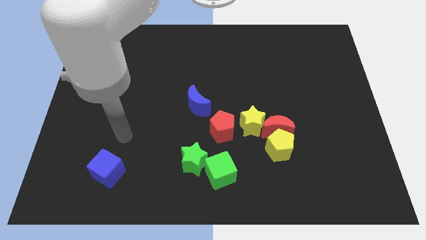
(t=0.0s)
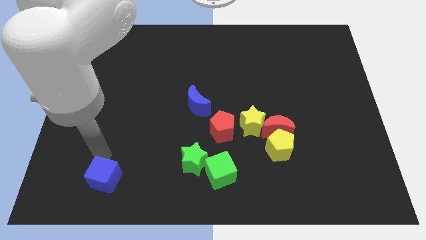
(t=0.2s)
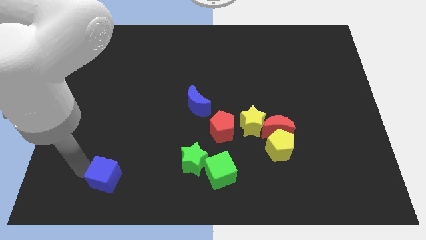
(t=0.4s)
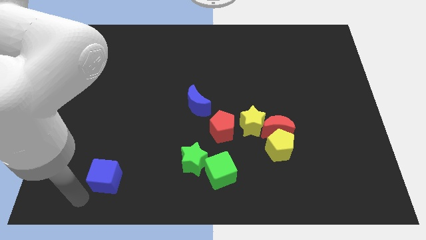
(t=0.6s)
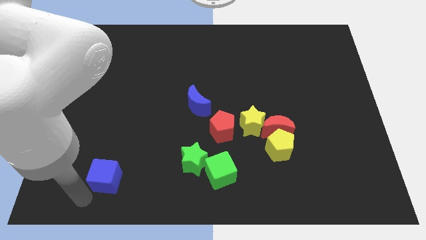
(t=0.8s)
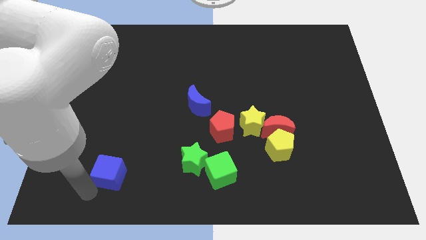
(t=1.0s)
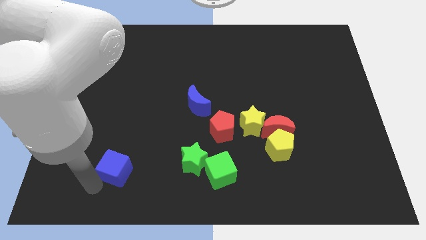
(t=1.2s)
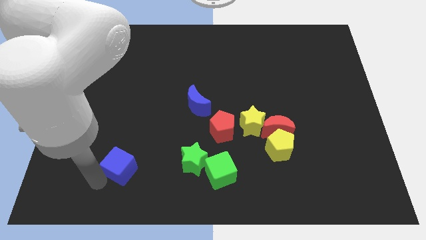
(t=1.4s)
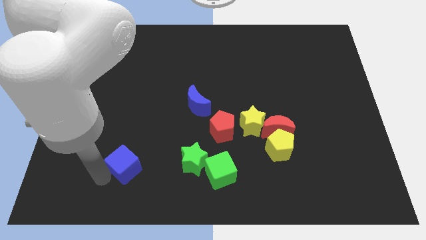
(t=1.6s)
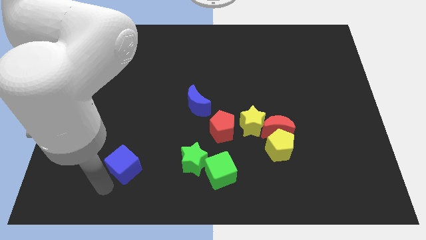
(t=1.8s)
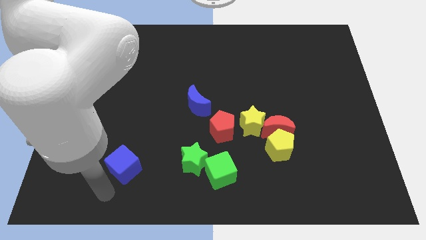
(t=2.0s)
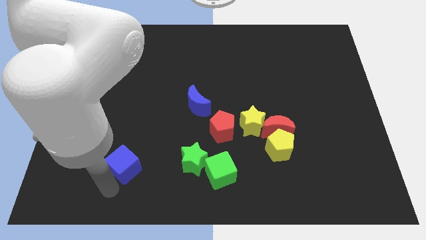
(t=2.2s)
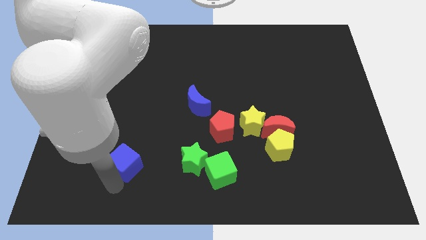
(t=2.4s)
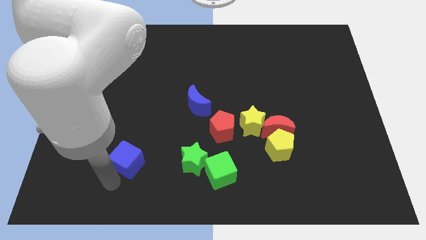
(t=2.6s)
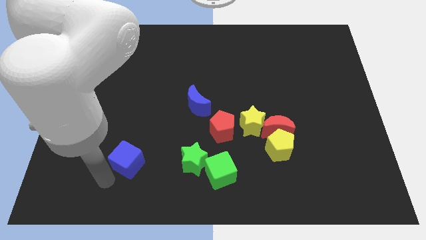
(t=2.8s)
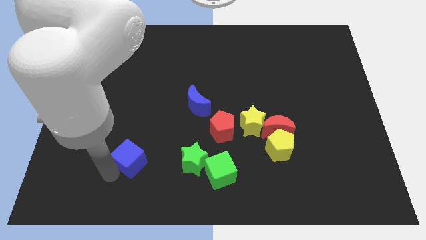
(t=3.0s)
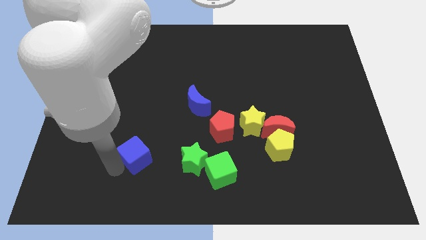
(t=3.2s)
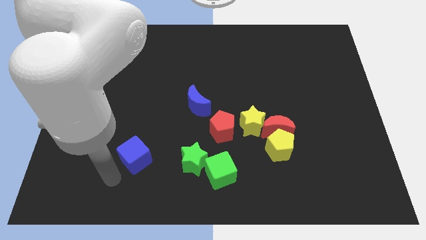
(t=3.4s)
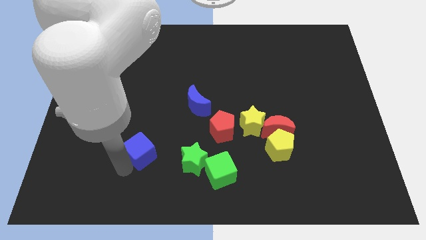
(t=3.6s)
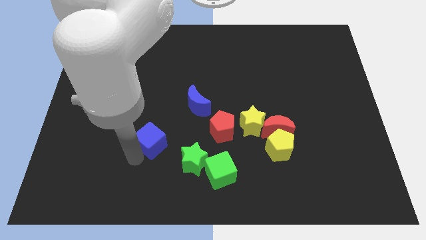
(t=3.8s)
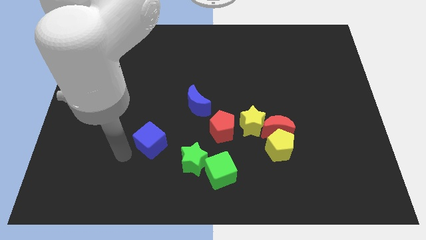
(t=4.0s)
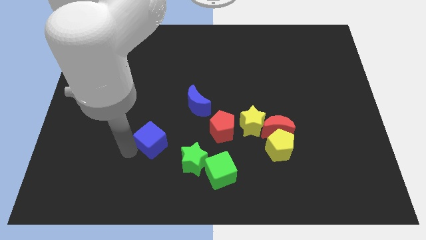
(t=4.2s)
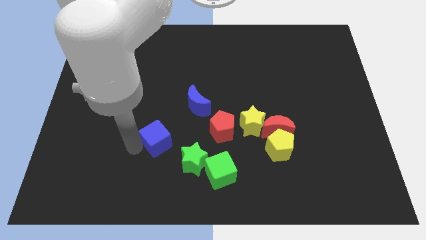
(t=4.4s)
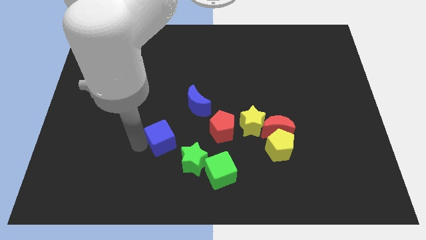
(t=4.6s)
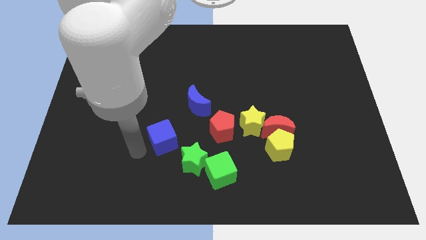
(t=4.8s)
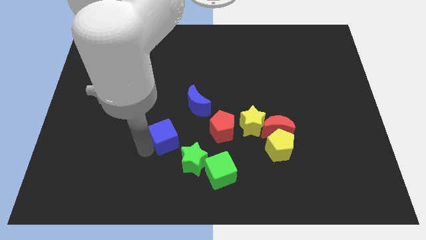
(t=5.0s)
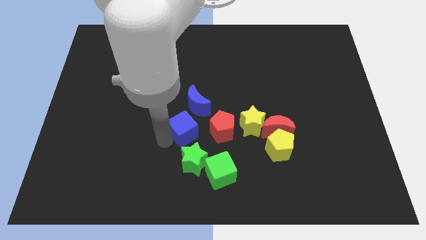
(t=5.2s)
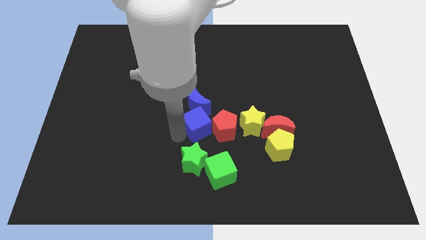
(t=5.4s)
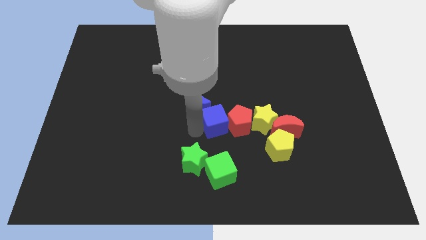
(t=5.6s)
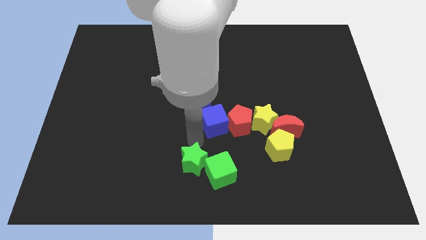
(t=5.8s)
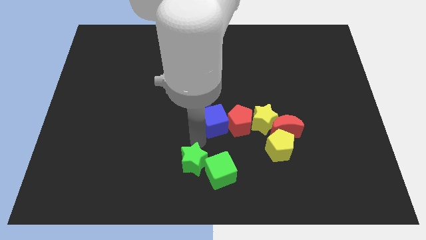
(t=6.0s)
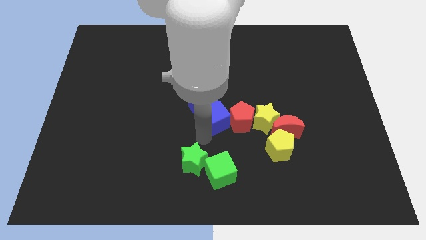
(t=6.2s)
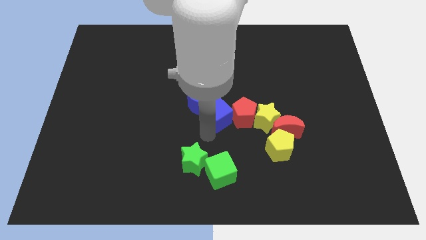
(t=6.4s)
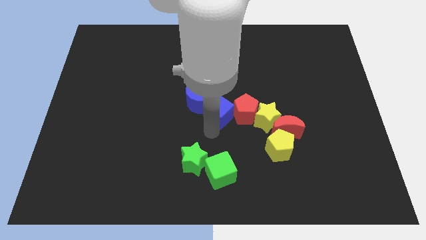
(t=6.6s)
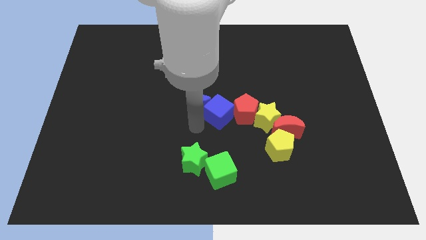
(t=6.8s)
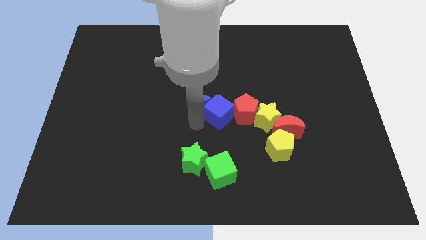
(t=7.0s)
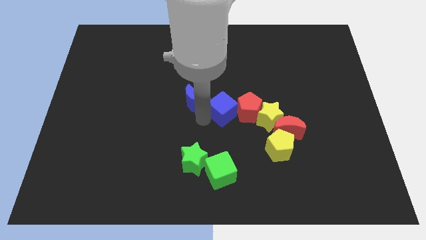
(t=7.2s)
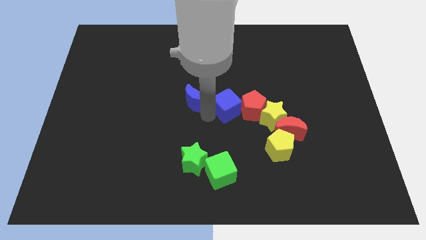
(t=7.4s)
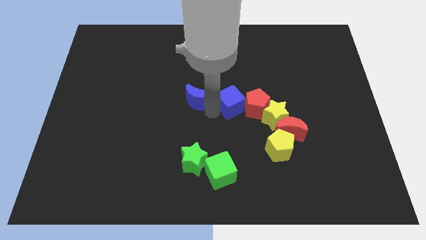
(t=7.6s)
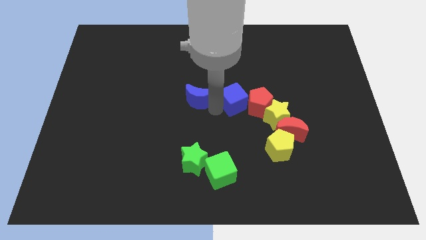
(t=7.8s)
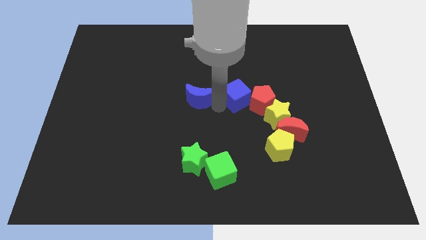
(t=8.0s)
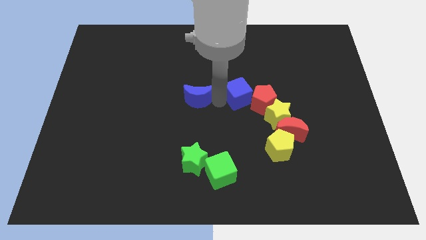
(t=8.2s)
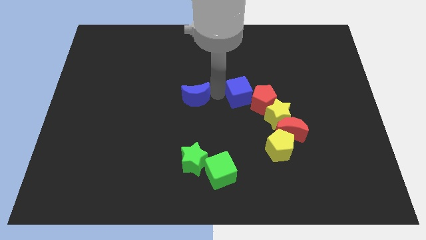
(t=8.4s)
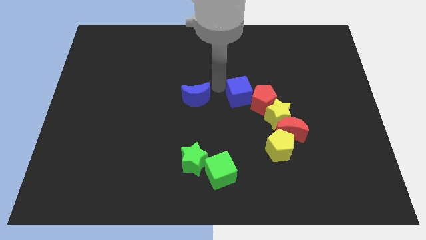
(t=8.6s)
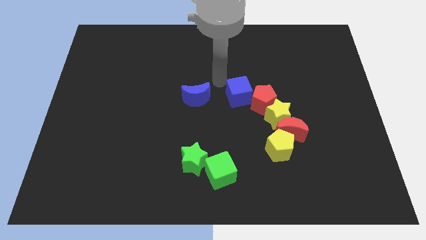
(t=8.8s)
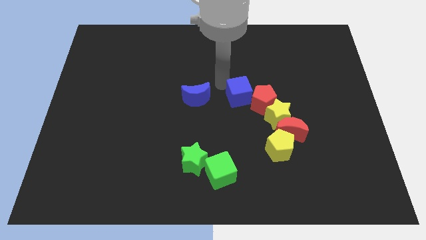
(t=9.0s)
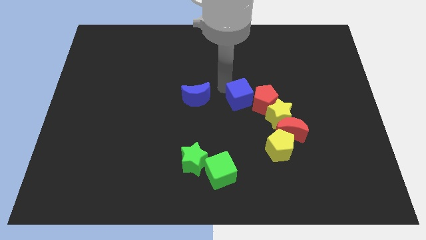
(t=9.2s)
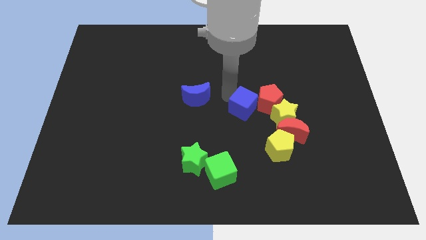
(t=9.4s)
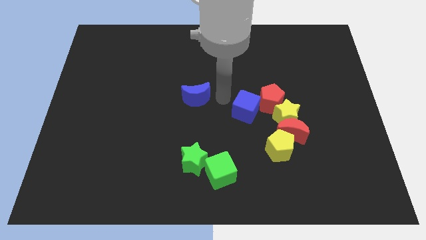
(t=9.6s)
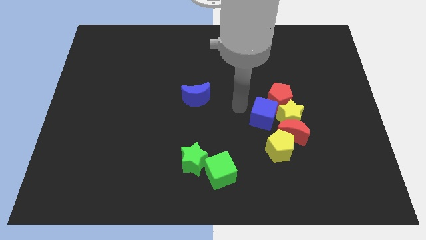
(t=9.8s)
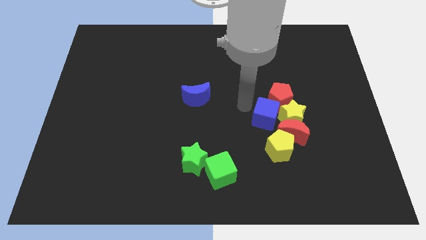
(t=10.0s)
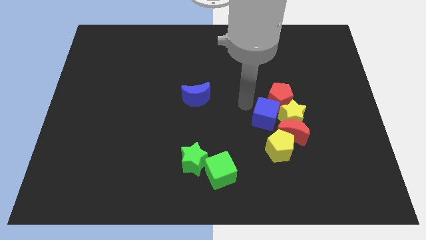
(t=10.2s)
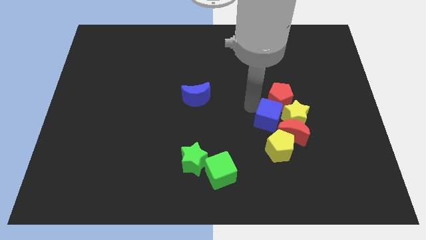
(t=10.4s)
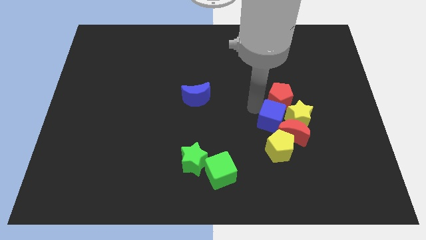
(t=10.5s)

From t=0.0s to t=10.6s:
push the blue cube next to the red moon

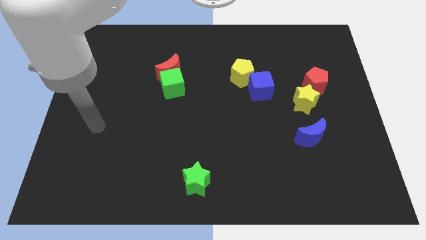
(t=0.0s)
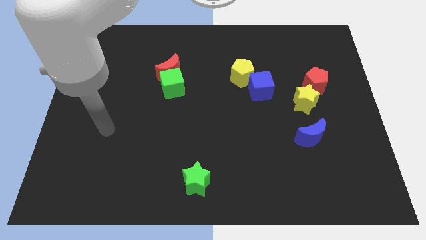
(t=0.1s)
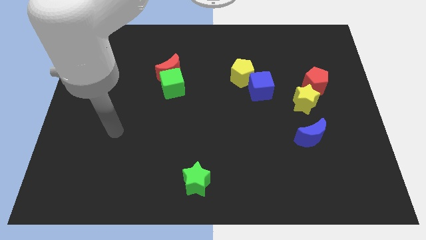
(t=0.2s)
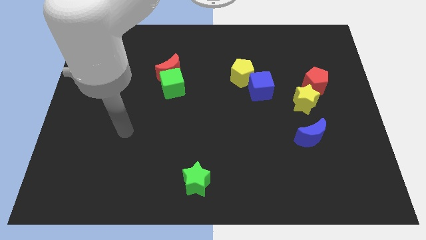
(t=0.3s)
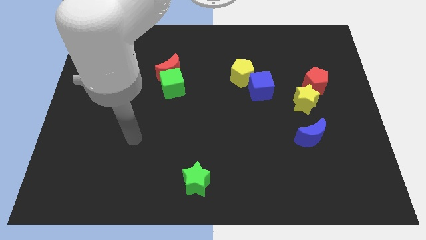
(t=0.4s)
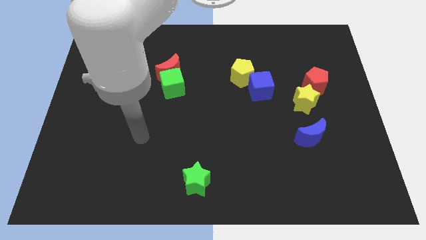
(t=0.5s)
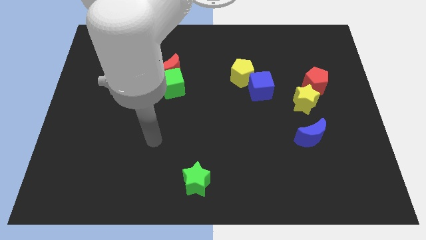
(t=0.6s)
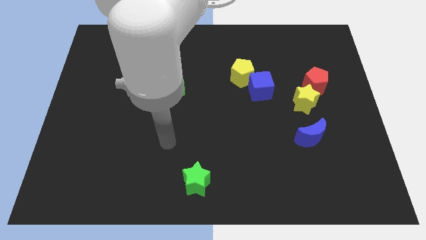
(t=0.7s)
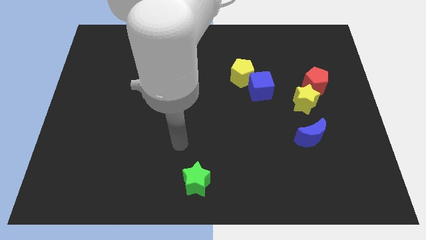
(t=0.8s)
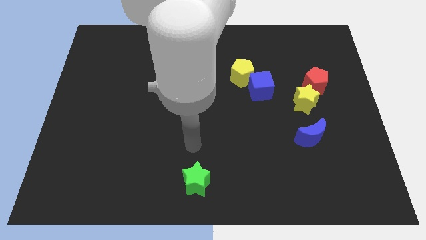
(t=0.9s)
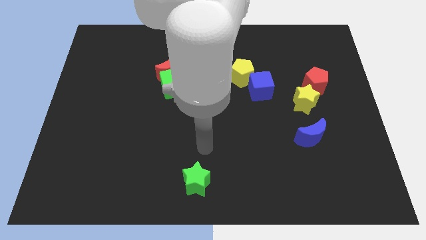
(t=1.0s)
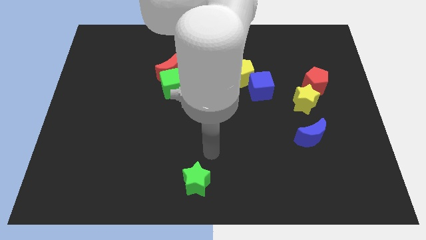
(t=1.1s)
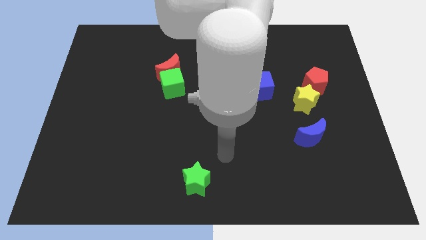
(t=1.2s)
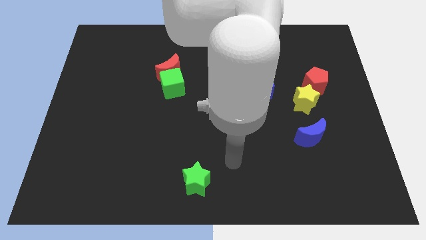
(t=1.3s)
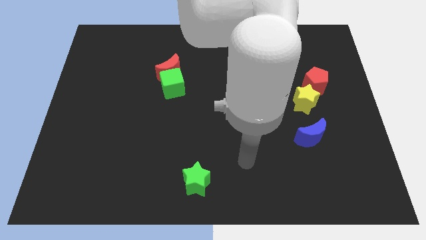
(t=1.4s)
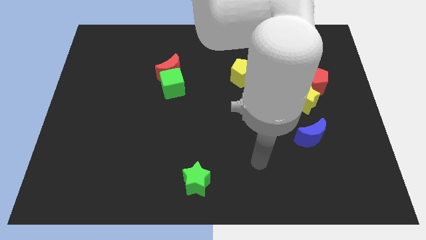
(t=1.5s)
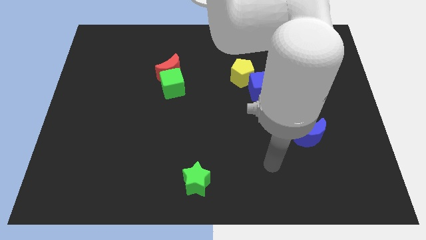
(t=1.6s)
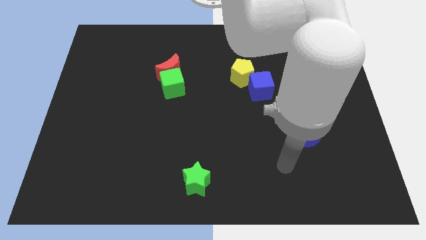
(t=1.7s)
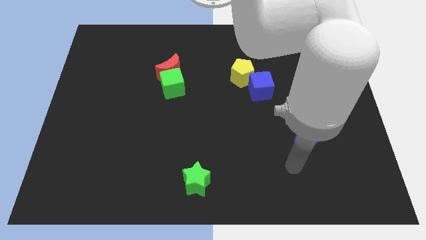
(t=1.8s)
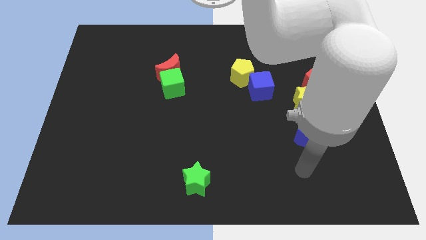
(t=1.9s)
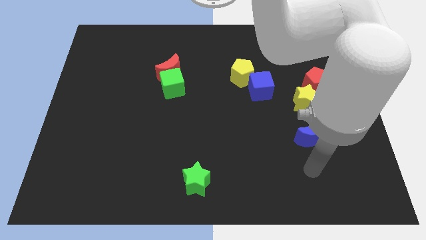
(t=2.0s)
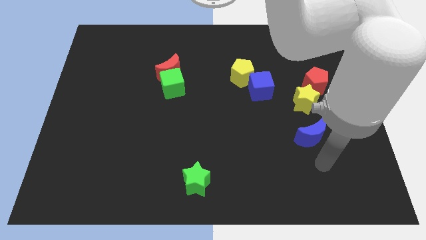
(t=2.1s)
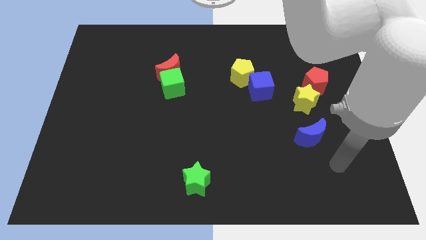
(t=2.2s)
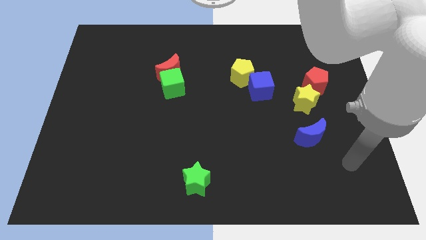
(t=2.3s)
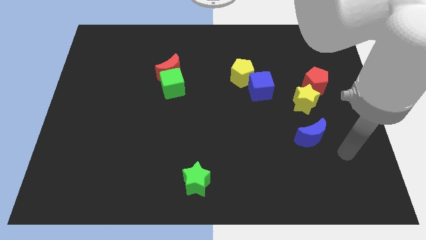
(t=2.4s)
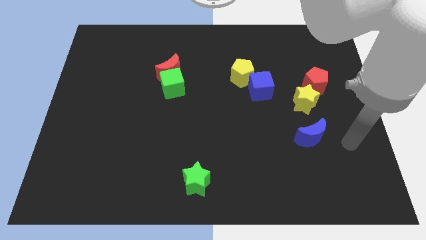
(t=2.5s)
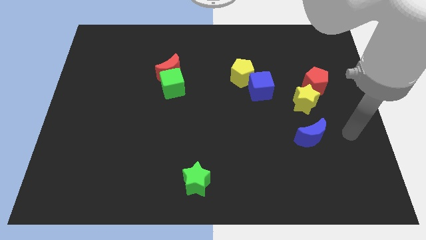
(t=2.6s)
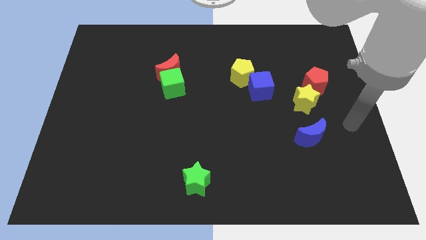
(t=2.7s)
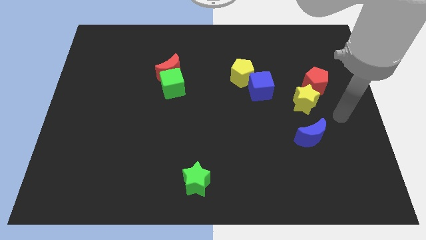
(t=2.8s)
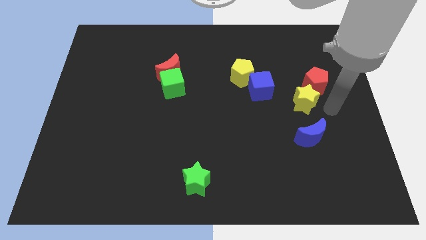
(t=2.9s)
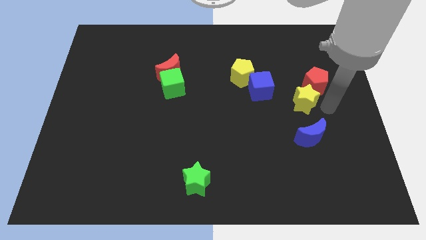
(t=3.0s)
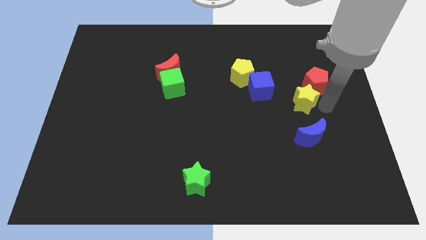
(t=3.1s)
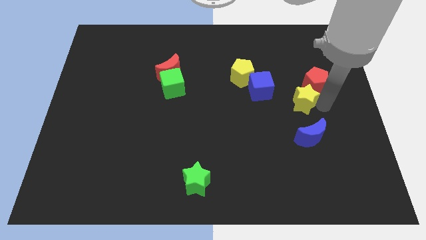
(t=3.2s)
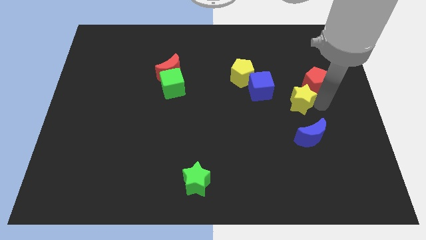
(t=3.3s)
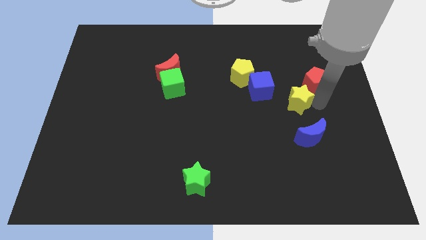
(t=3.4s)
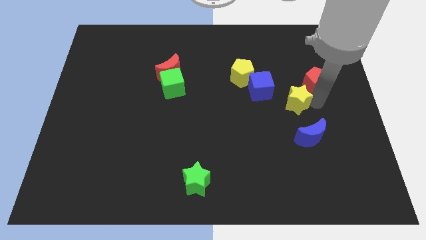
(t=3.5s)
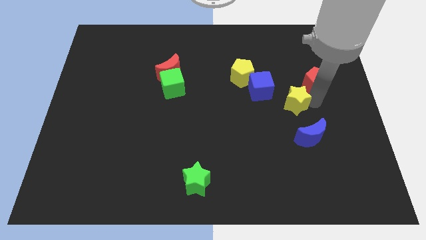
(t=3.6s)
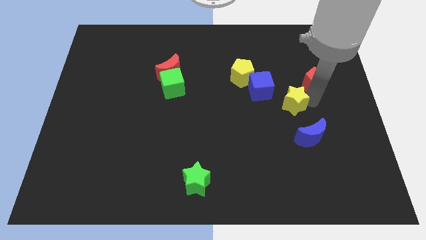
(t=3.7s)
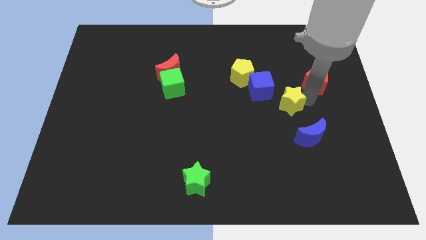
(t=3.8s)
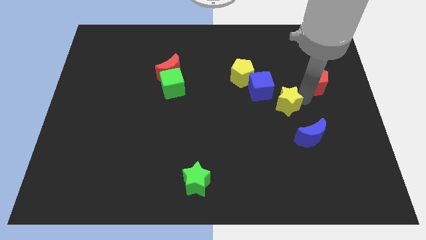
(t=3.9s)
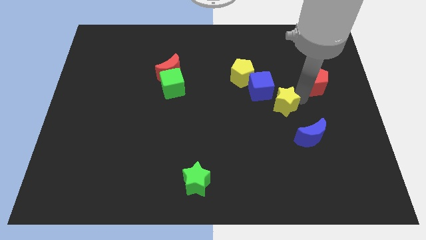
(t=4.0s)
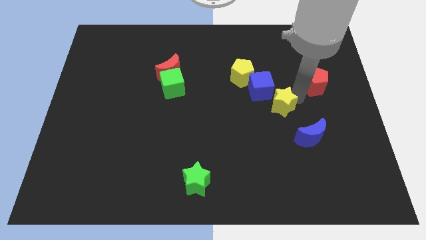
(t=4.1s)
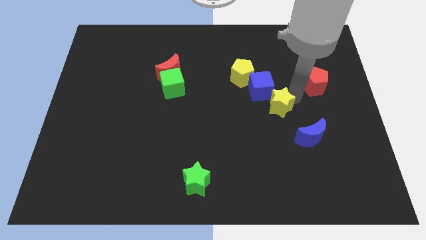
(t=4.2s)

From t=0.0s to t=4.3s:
put the yellow star close to the blue cube
